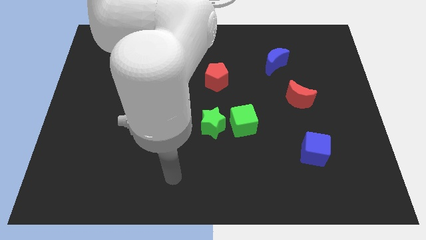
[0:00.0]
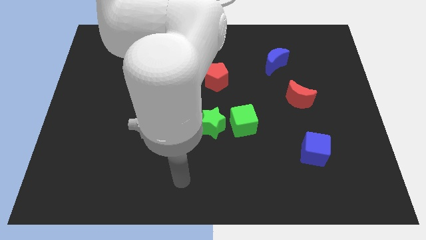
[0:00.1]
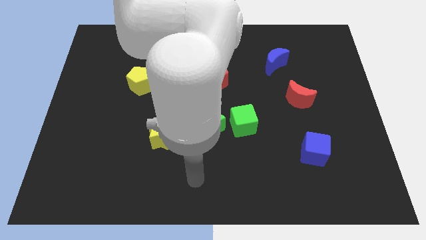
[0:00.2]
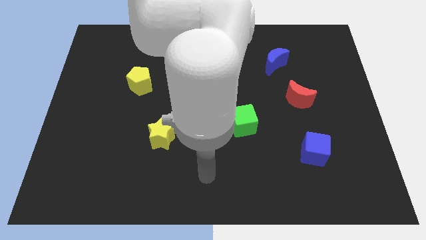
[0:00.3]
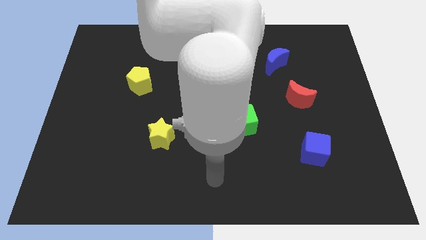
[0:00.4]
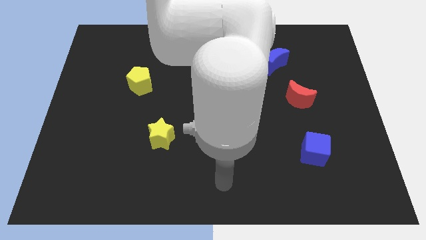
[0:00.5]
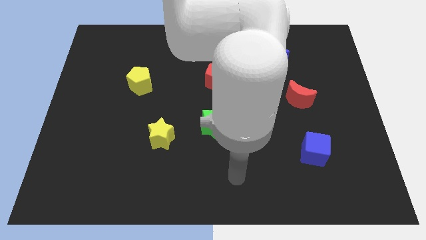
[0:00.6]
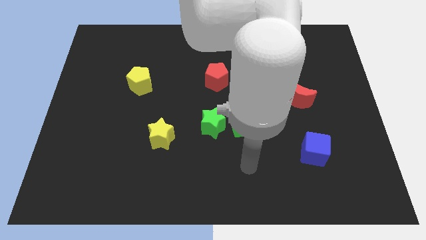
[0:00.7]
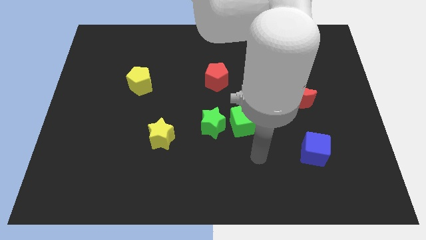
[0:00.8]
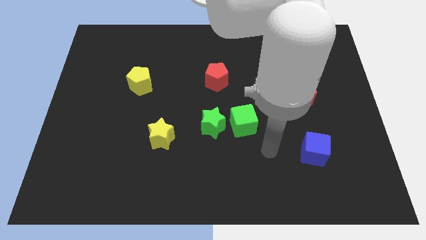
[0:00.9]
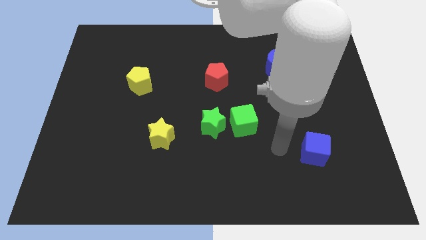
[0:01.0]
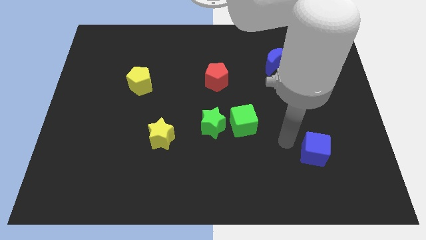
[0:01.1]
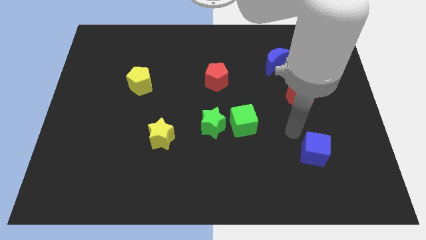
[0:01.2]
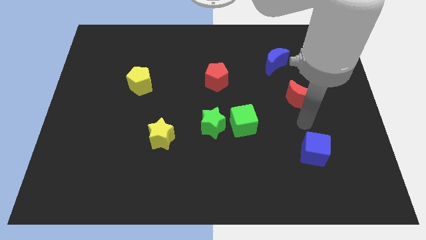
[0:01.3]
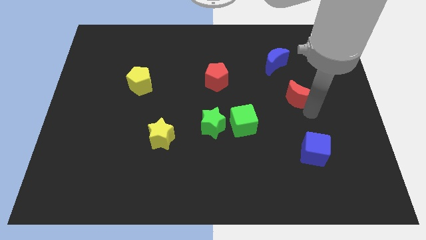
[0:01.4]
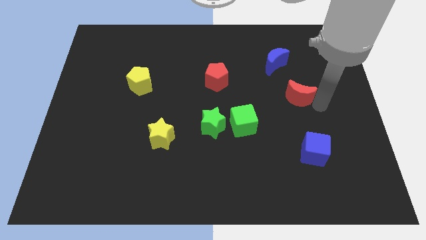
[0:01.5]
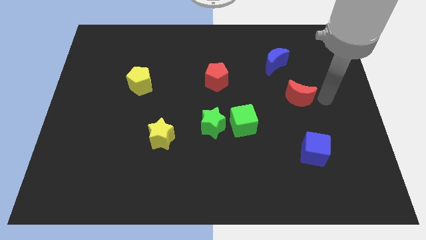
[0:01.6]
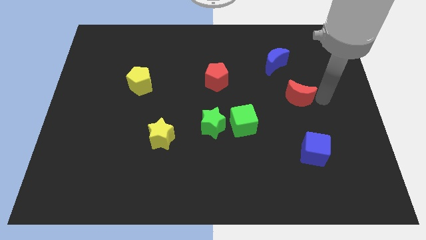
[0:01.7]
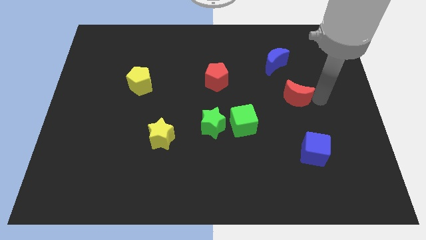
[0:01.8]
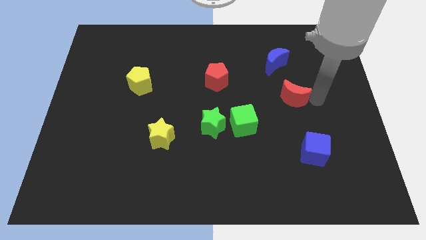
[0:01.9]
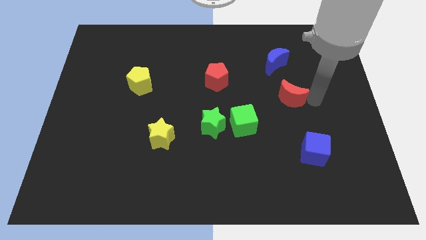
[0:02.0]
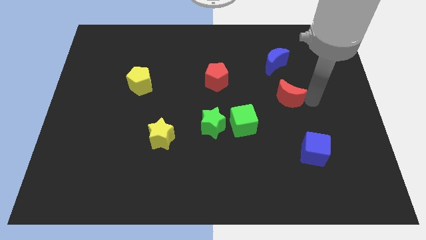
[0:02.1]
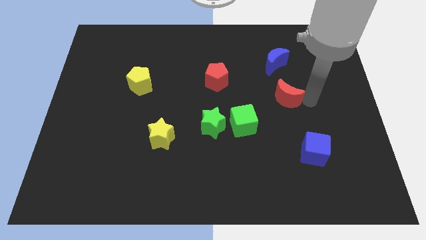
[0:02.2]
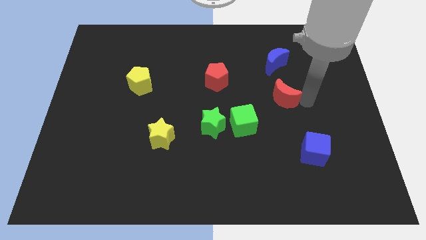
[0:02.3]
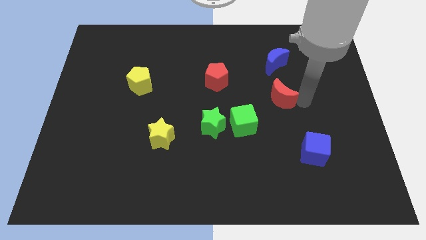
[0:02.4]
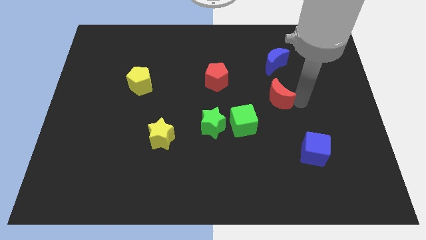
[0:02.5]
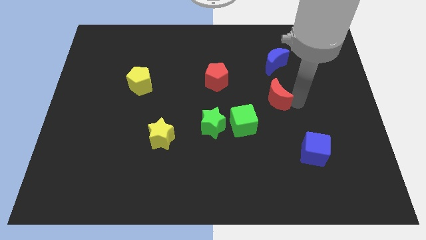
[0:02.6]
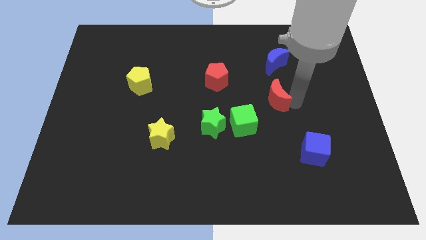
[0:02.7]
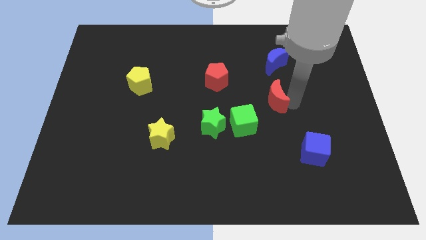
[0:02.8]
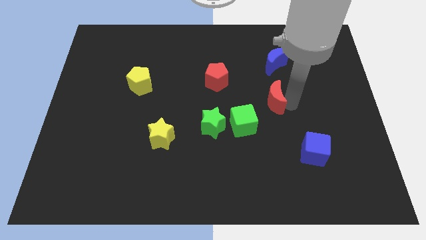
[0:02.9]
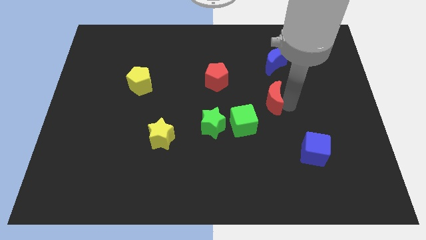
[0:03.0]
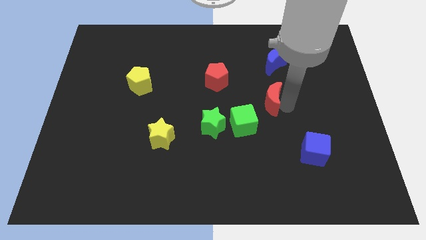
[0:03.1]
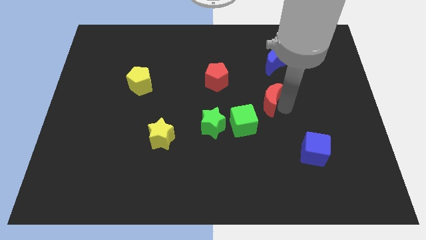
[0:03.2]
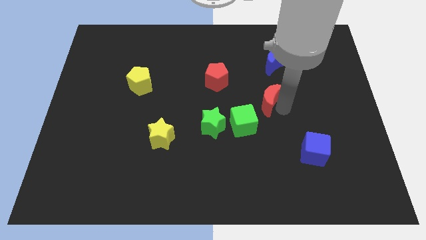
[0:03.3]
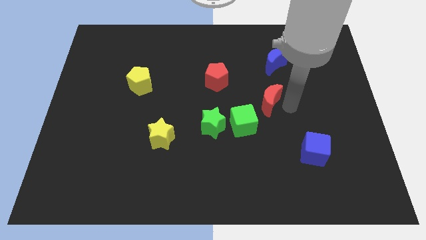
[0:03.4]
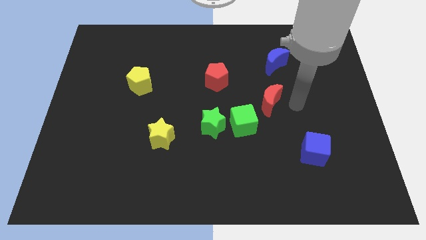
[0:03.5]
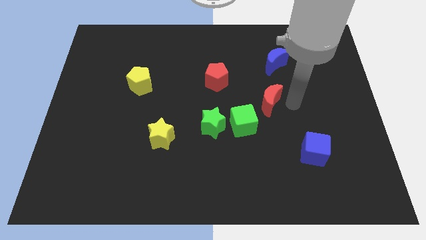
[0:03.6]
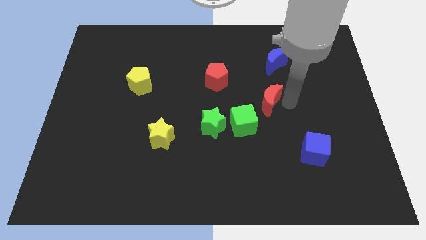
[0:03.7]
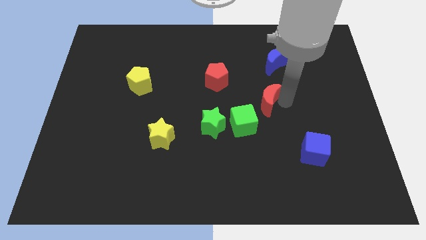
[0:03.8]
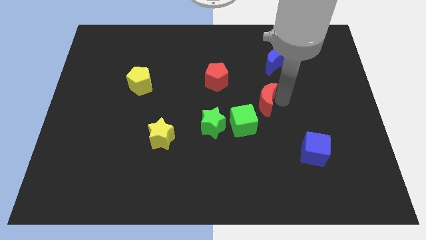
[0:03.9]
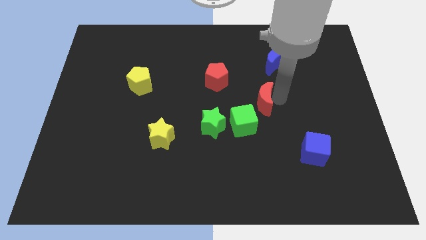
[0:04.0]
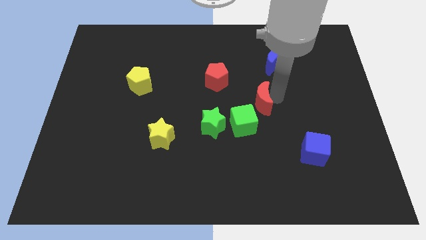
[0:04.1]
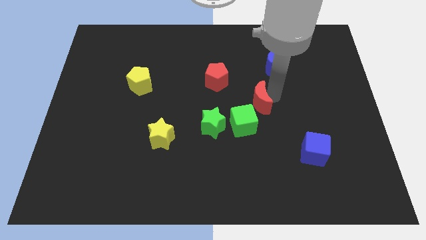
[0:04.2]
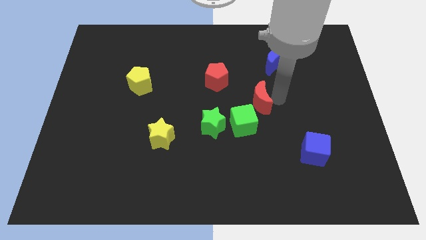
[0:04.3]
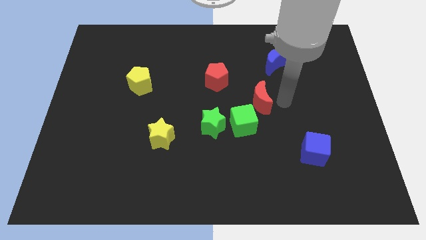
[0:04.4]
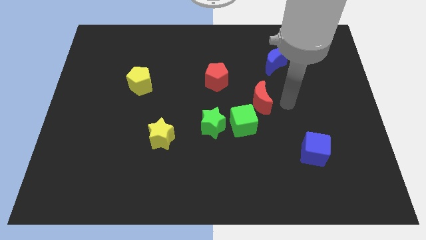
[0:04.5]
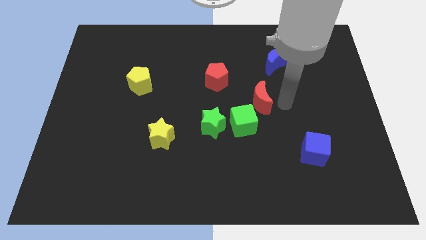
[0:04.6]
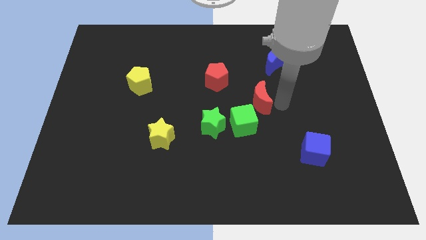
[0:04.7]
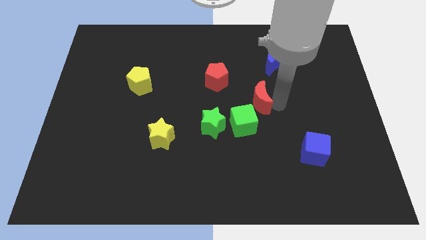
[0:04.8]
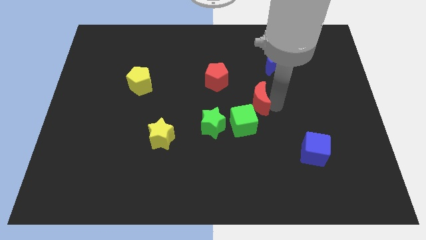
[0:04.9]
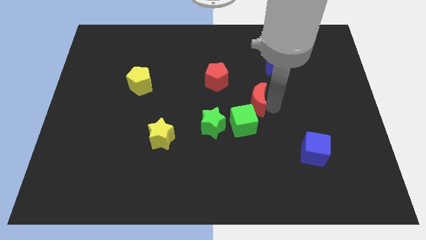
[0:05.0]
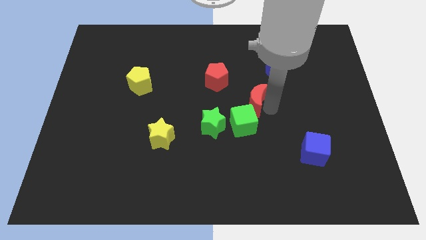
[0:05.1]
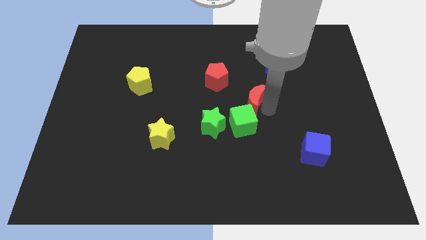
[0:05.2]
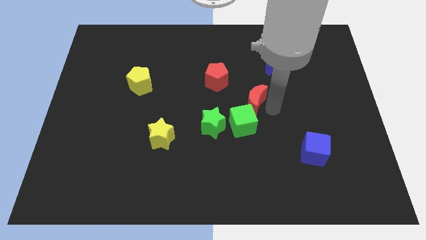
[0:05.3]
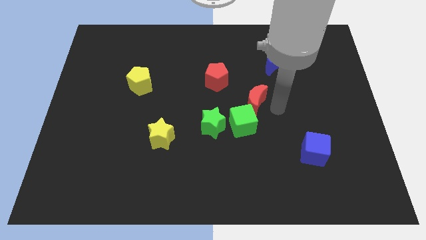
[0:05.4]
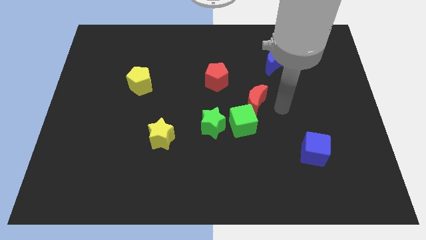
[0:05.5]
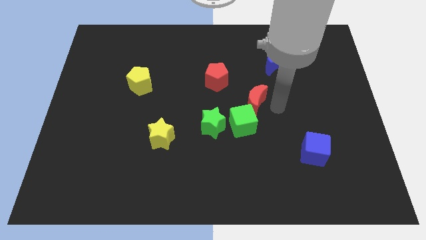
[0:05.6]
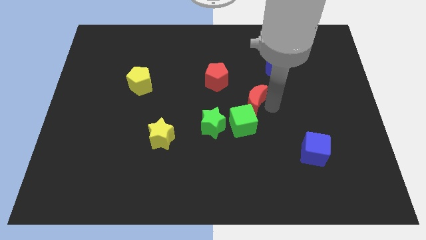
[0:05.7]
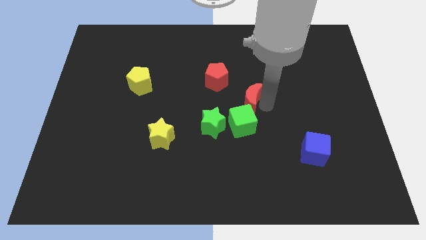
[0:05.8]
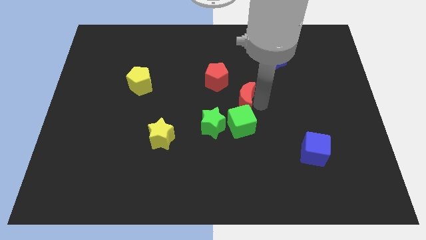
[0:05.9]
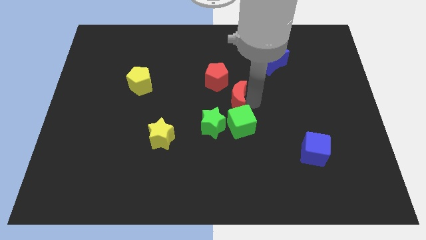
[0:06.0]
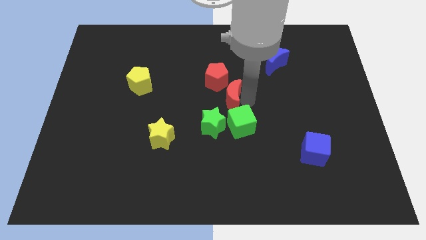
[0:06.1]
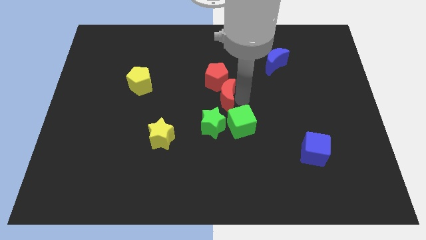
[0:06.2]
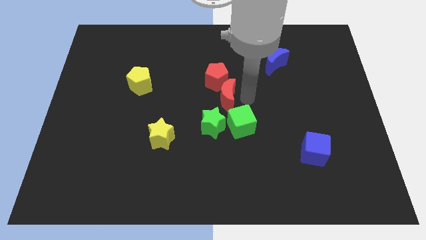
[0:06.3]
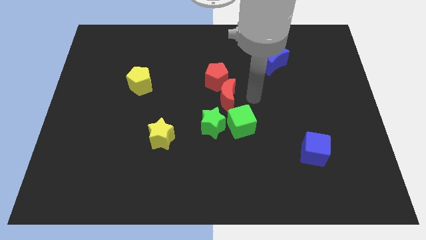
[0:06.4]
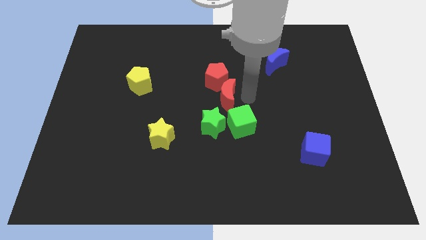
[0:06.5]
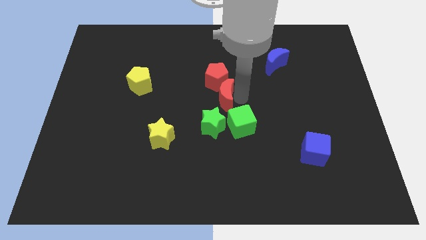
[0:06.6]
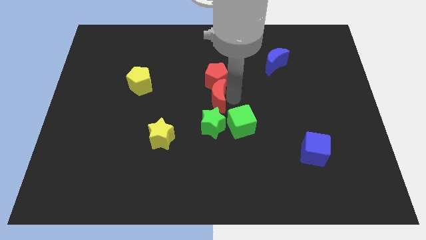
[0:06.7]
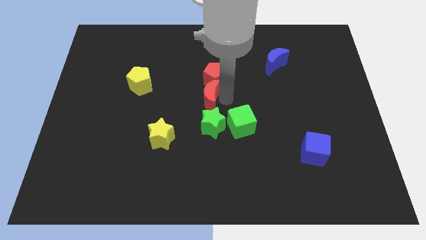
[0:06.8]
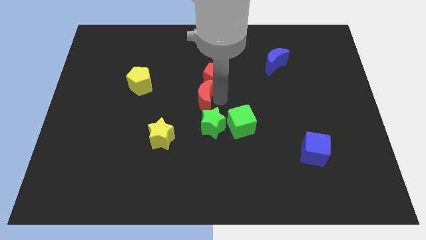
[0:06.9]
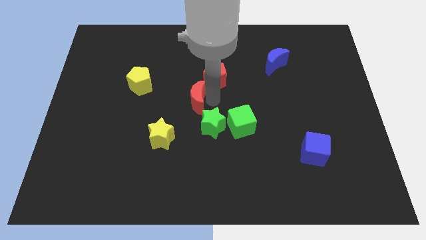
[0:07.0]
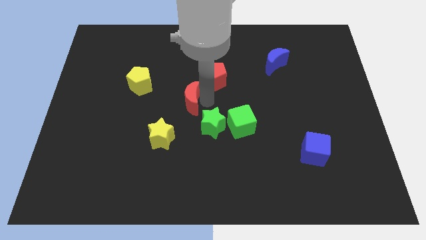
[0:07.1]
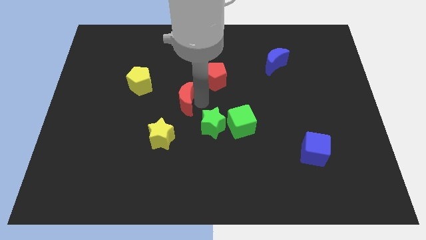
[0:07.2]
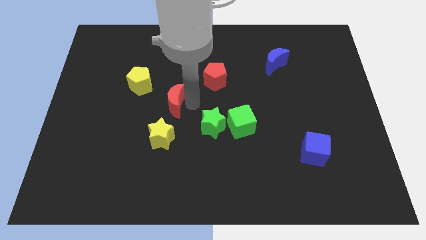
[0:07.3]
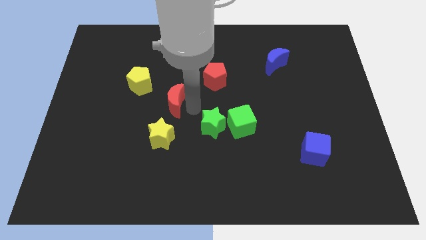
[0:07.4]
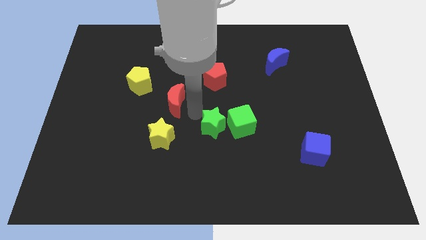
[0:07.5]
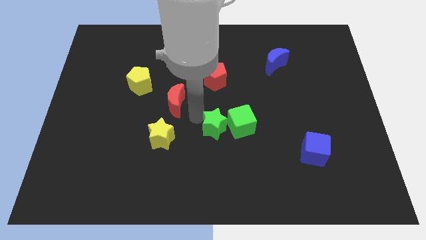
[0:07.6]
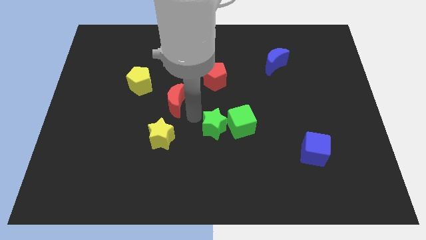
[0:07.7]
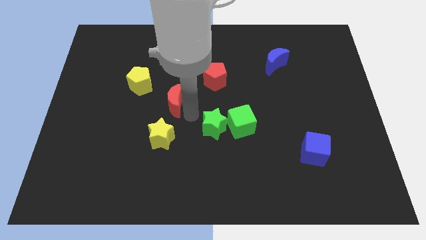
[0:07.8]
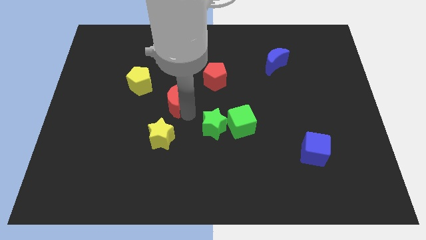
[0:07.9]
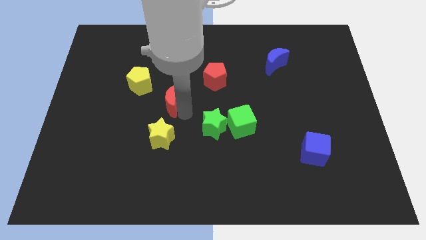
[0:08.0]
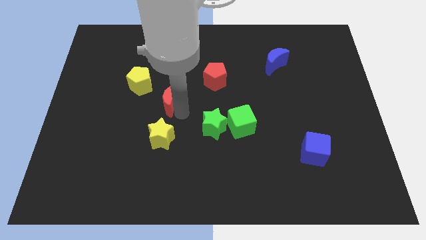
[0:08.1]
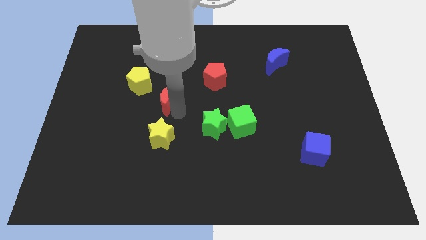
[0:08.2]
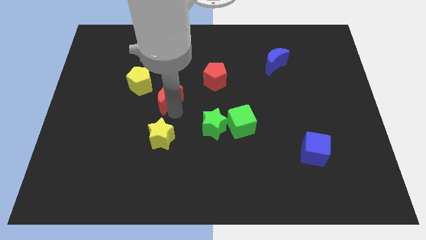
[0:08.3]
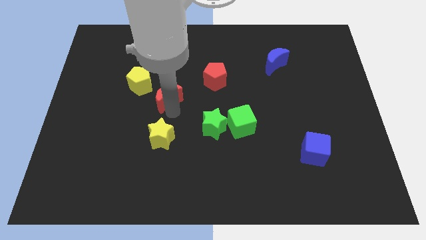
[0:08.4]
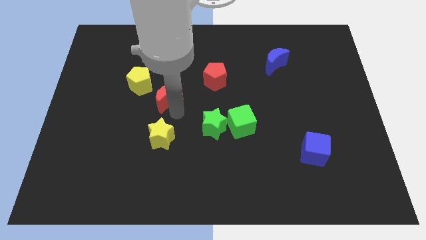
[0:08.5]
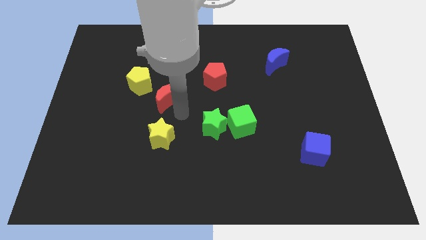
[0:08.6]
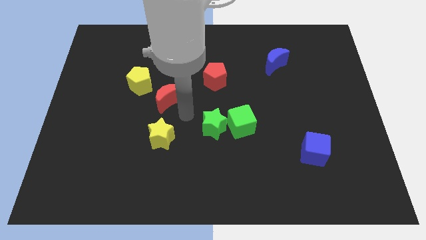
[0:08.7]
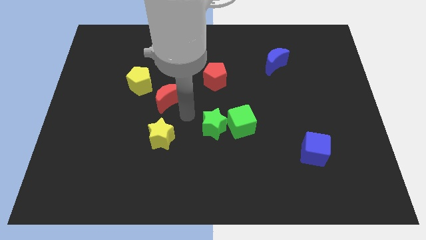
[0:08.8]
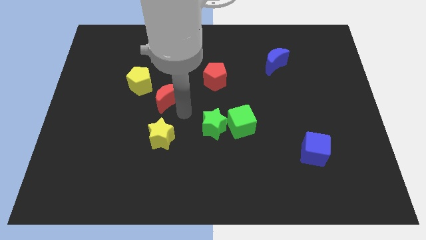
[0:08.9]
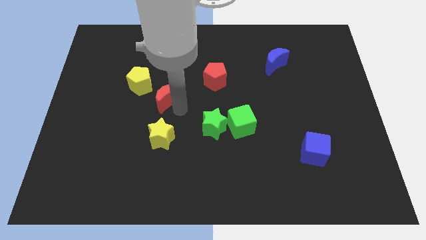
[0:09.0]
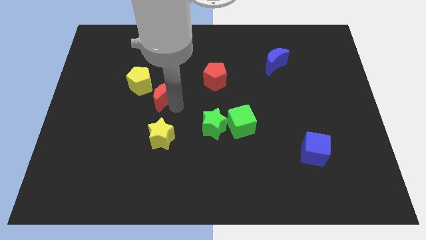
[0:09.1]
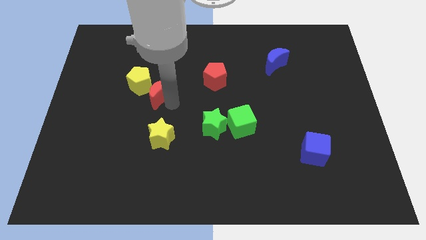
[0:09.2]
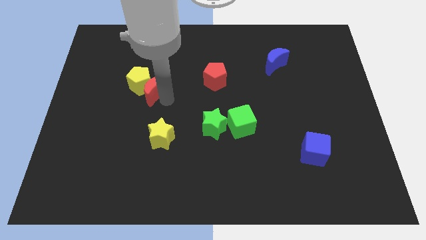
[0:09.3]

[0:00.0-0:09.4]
move the red moon to the yellow pentagon
